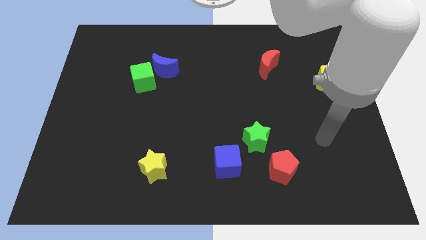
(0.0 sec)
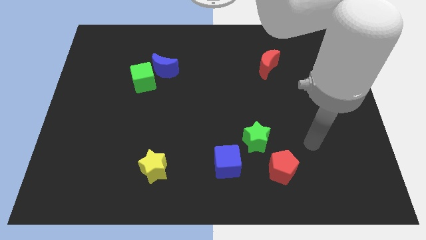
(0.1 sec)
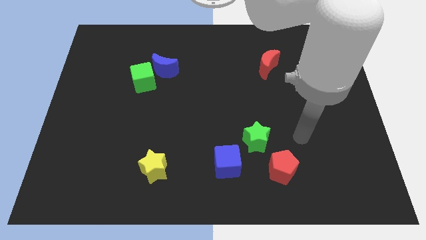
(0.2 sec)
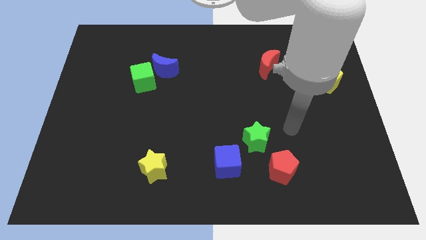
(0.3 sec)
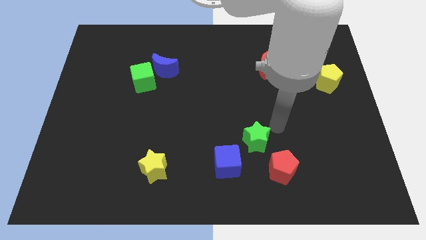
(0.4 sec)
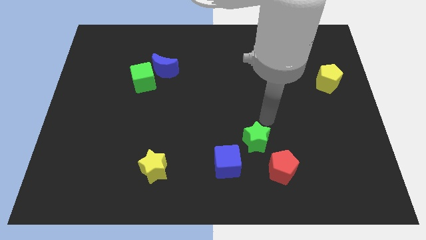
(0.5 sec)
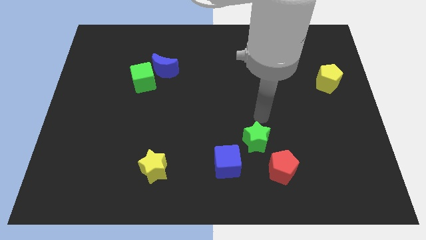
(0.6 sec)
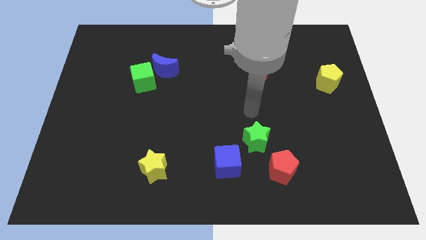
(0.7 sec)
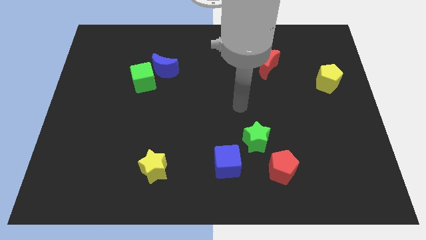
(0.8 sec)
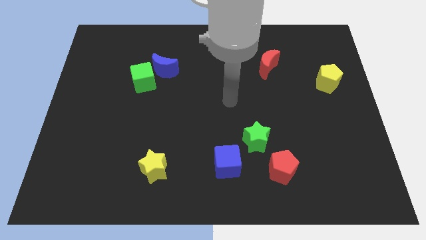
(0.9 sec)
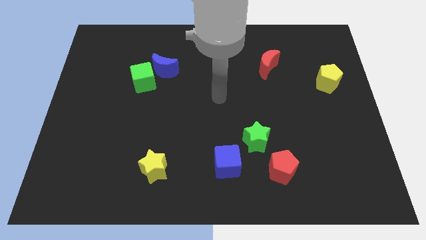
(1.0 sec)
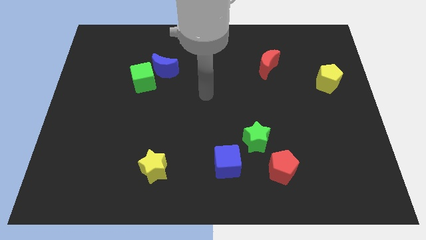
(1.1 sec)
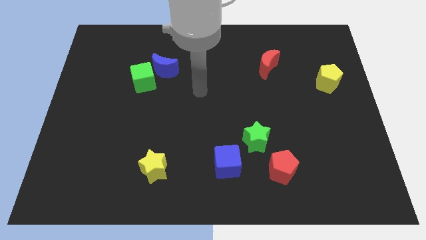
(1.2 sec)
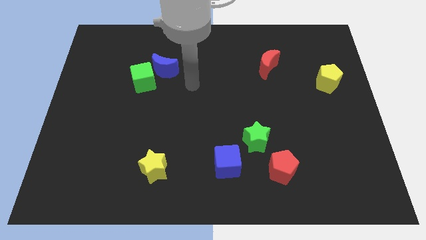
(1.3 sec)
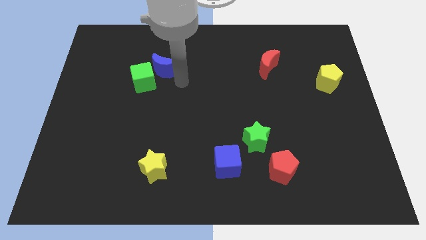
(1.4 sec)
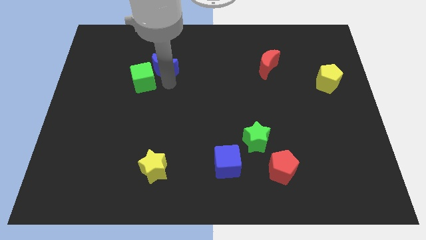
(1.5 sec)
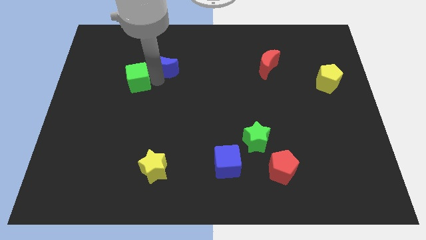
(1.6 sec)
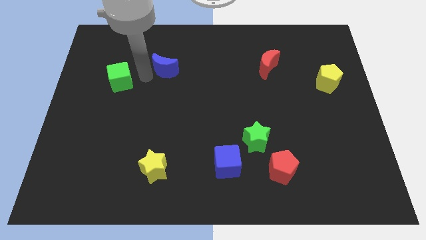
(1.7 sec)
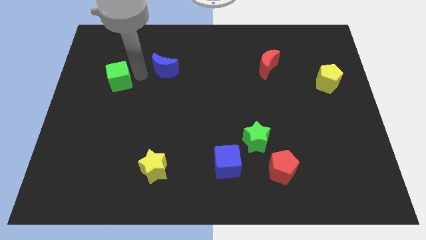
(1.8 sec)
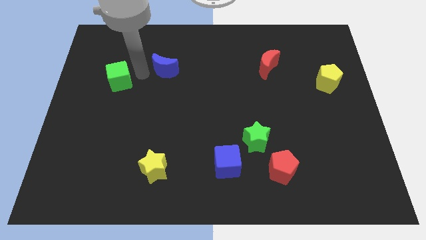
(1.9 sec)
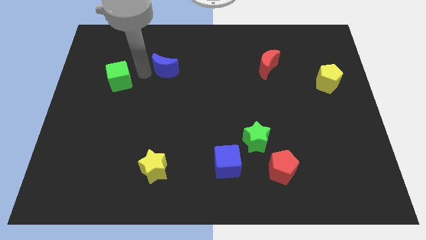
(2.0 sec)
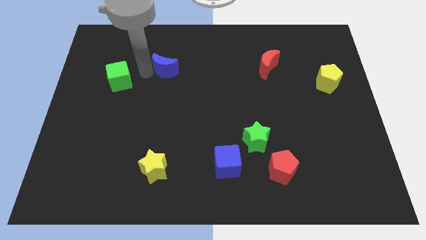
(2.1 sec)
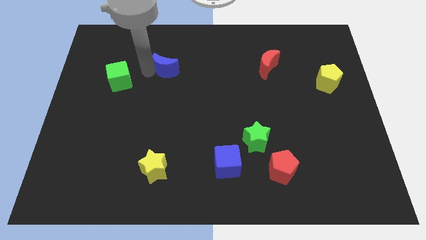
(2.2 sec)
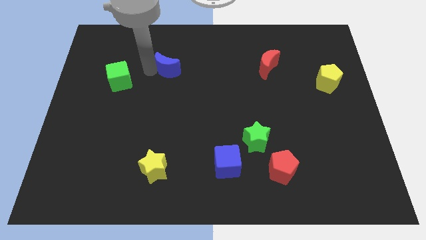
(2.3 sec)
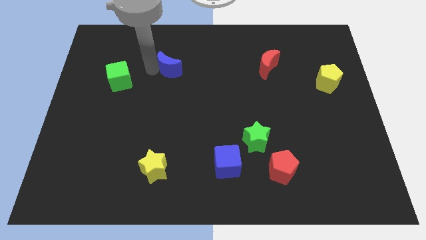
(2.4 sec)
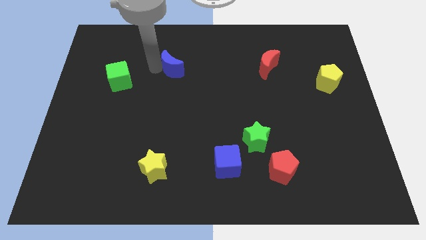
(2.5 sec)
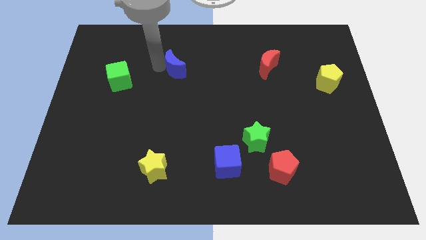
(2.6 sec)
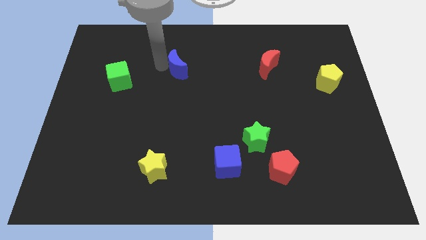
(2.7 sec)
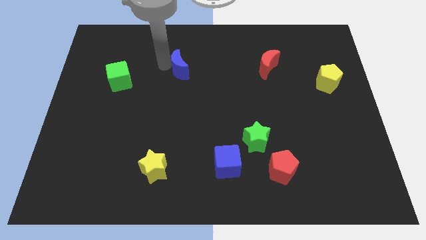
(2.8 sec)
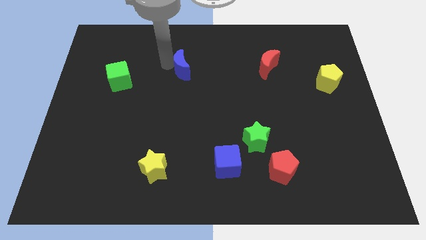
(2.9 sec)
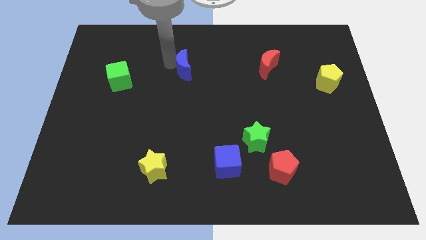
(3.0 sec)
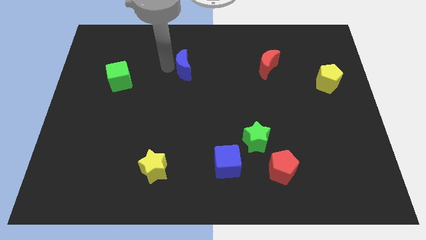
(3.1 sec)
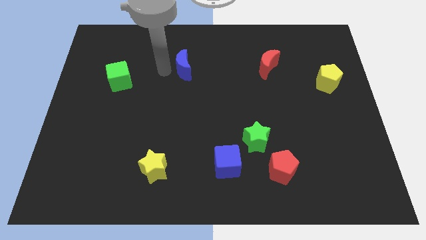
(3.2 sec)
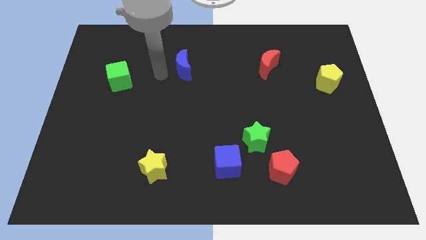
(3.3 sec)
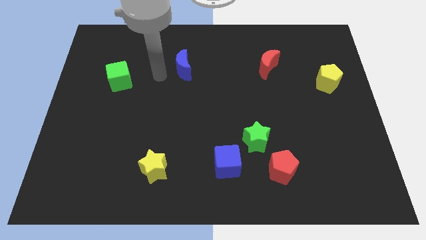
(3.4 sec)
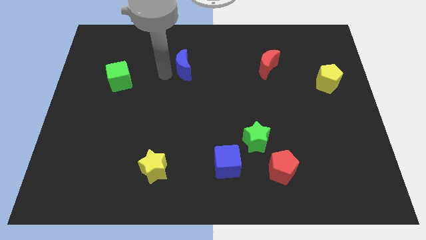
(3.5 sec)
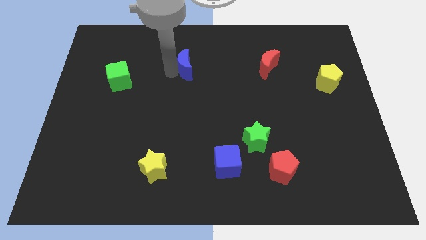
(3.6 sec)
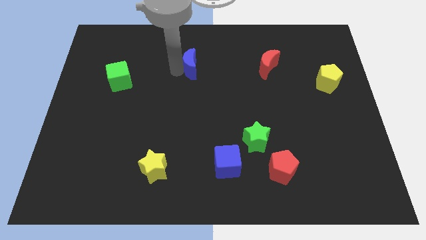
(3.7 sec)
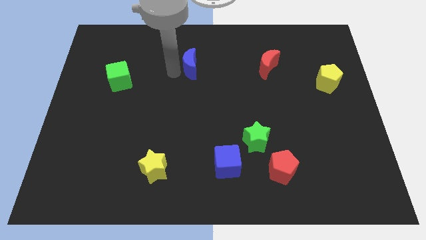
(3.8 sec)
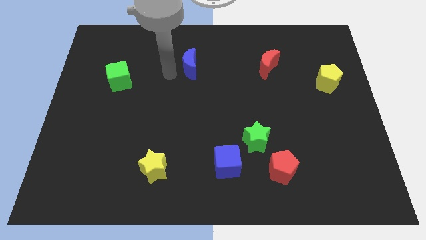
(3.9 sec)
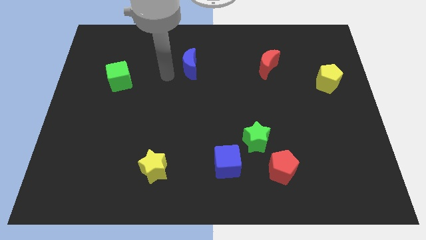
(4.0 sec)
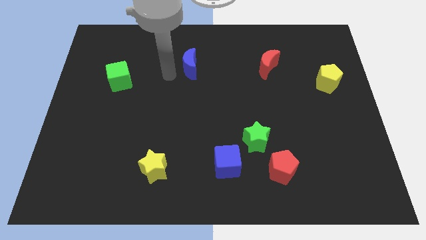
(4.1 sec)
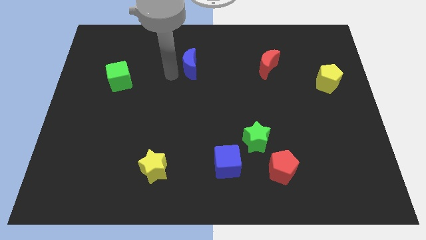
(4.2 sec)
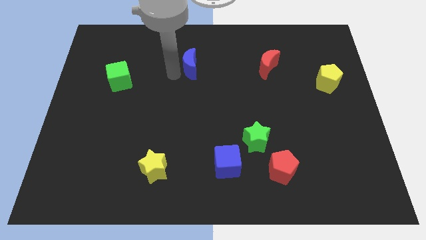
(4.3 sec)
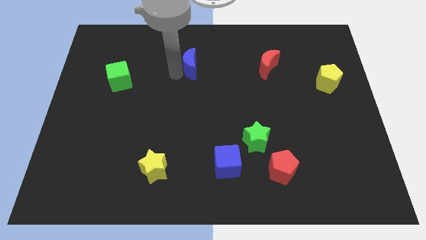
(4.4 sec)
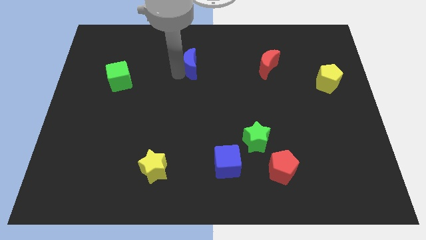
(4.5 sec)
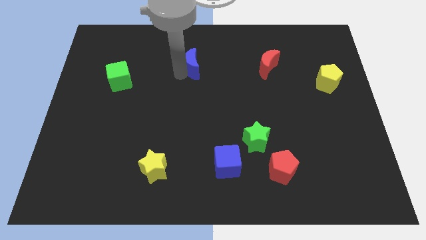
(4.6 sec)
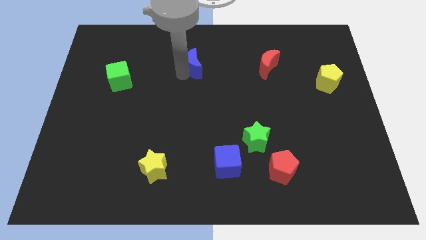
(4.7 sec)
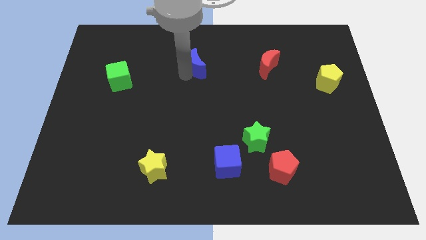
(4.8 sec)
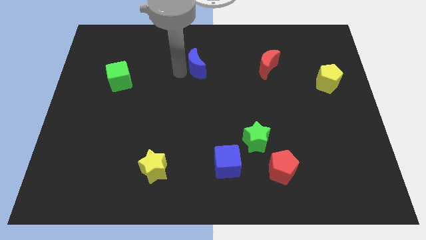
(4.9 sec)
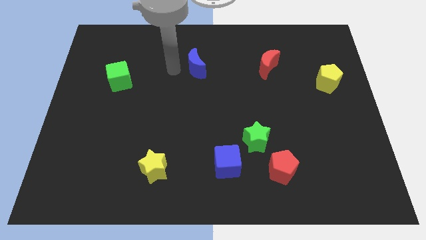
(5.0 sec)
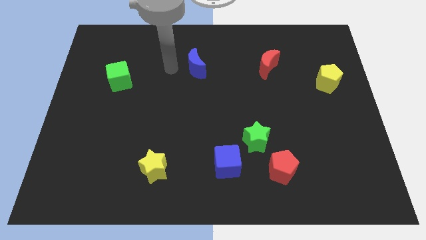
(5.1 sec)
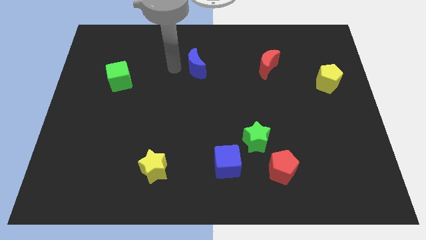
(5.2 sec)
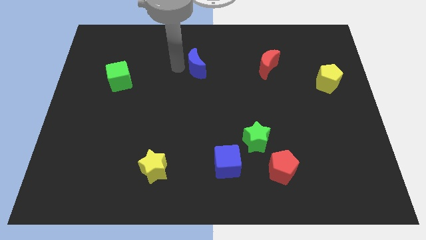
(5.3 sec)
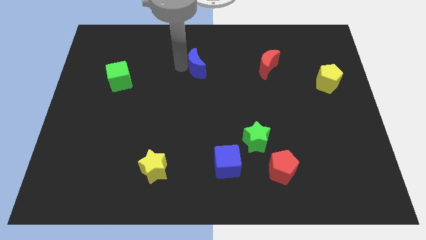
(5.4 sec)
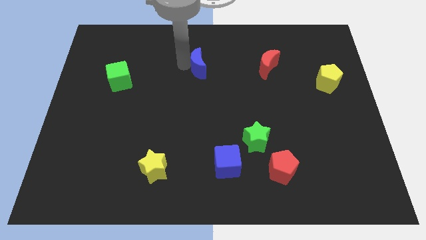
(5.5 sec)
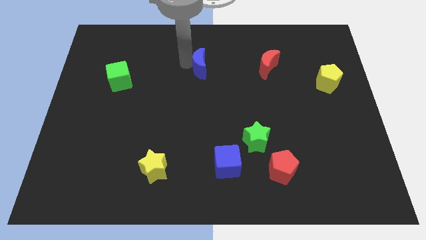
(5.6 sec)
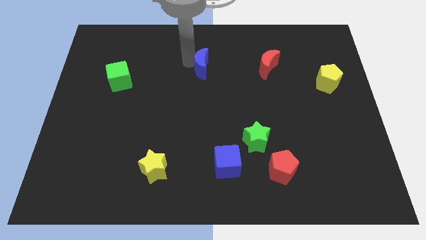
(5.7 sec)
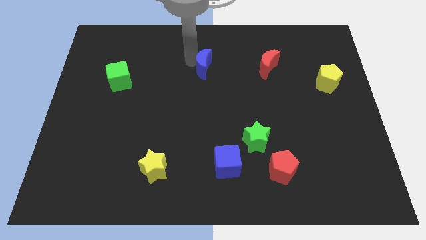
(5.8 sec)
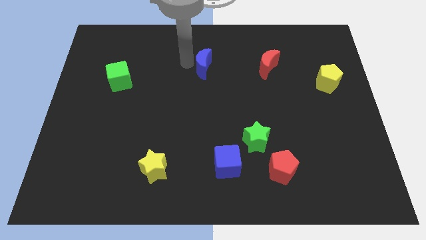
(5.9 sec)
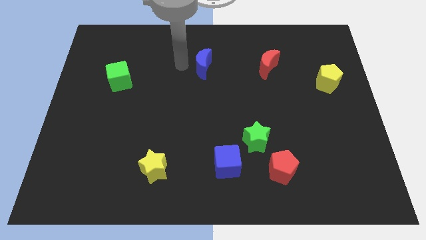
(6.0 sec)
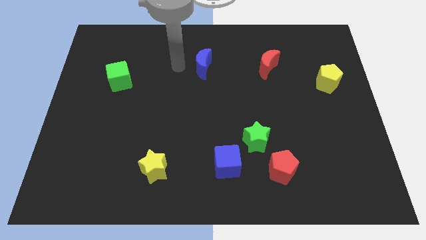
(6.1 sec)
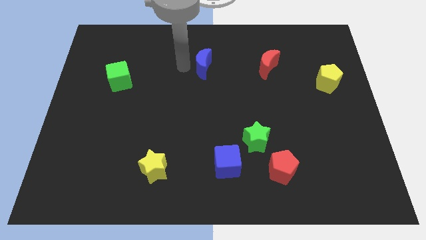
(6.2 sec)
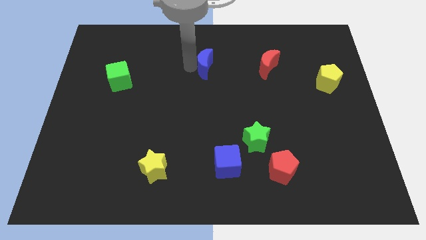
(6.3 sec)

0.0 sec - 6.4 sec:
put the blue moon left of the red moon
